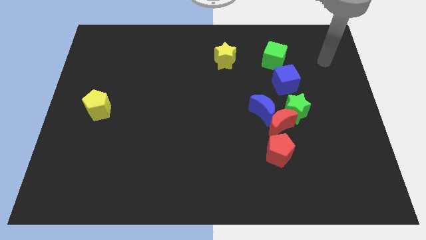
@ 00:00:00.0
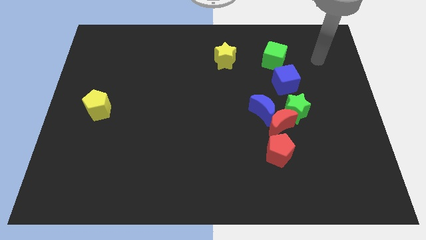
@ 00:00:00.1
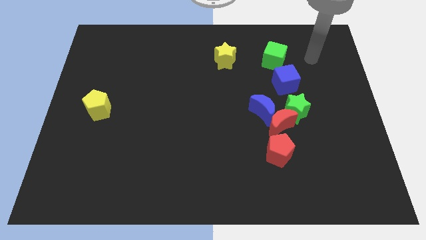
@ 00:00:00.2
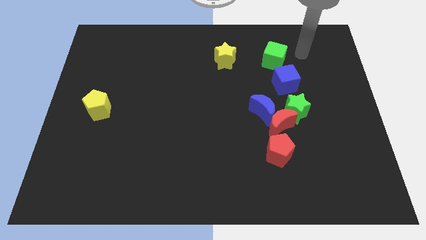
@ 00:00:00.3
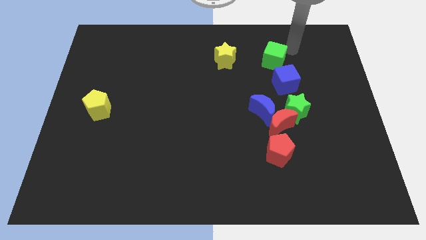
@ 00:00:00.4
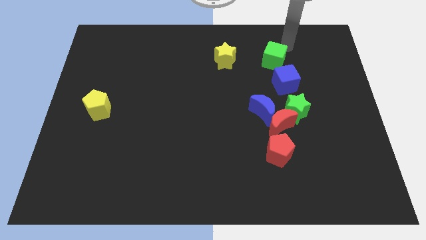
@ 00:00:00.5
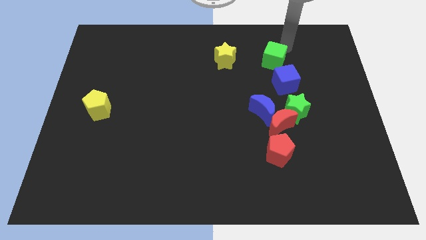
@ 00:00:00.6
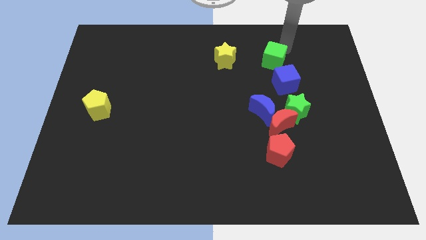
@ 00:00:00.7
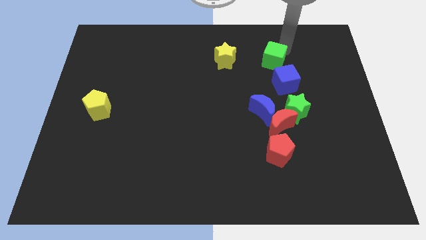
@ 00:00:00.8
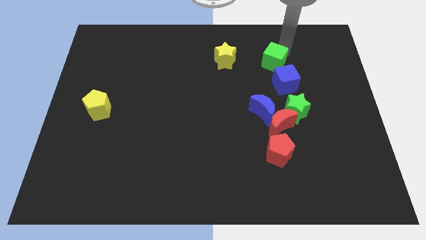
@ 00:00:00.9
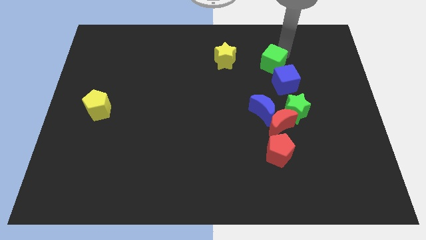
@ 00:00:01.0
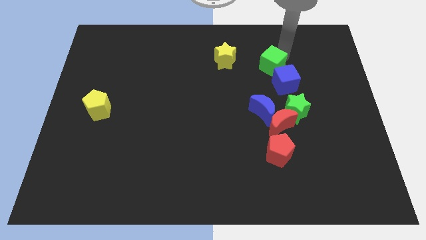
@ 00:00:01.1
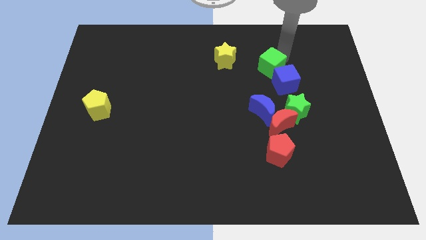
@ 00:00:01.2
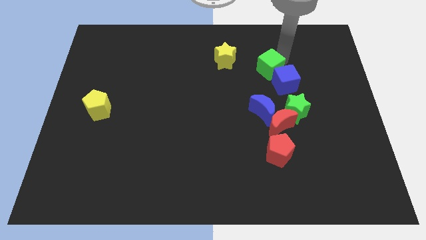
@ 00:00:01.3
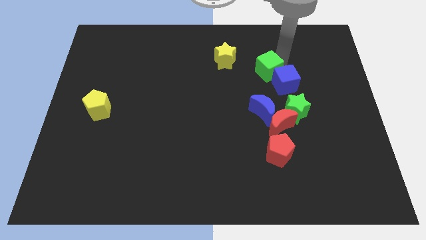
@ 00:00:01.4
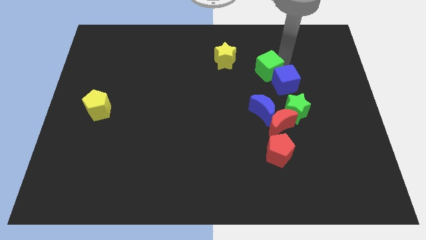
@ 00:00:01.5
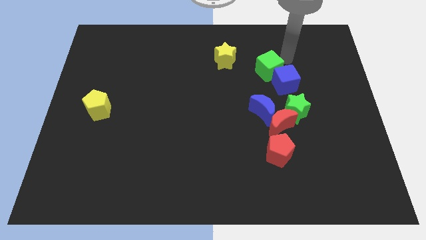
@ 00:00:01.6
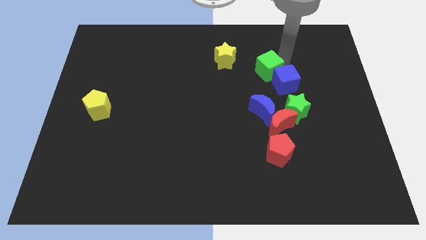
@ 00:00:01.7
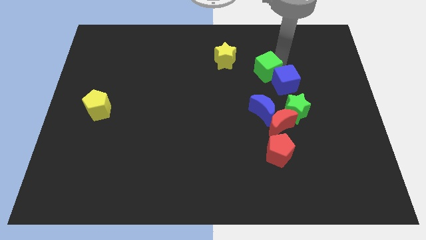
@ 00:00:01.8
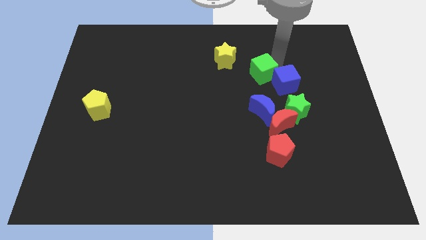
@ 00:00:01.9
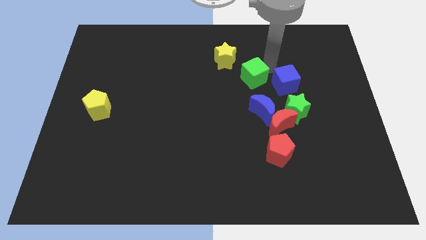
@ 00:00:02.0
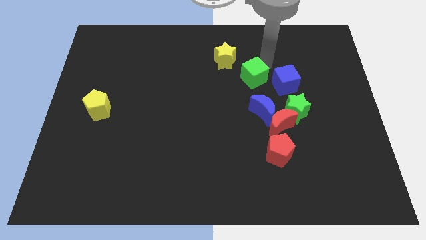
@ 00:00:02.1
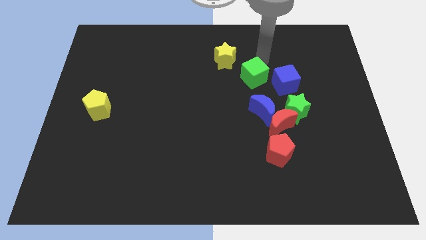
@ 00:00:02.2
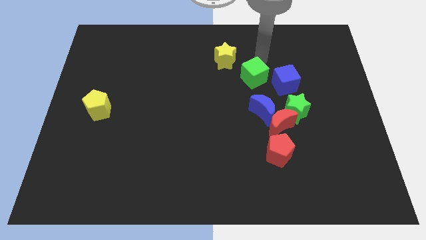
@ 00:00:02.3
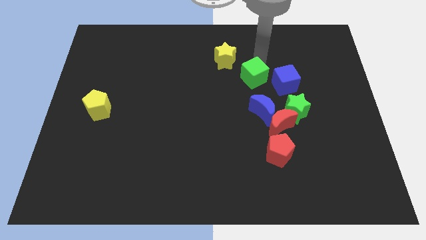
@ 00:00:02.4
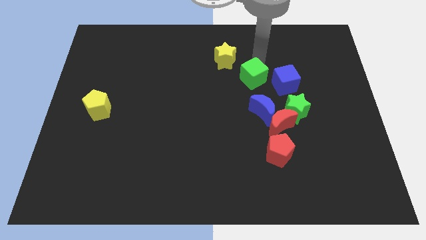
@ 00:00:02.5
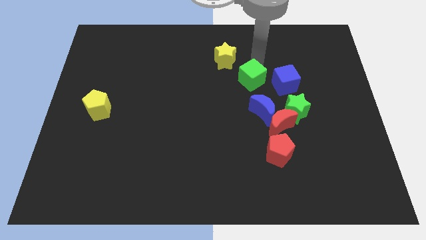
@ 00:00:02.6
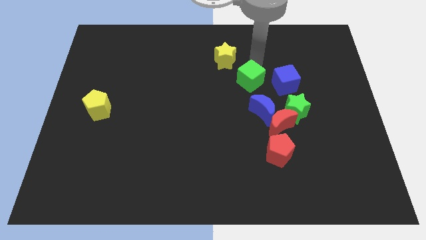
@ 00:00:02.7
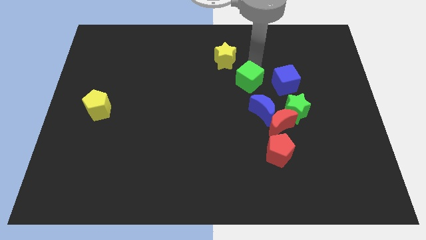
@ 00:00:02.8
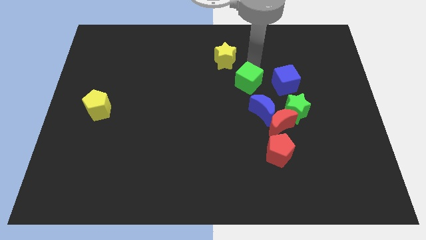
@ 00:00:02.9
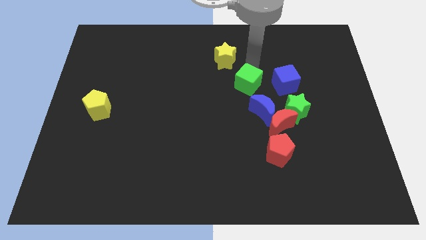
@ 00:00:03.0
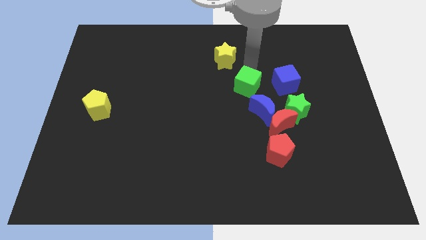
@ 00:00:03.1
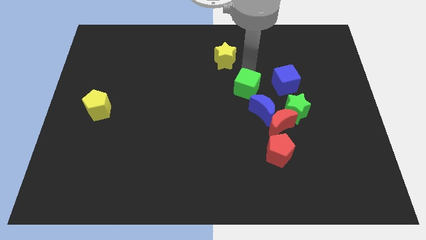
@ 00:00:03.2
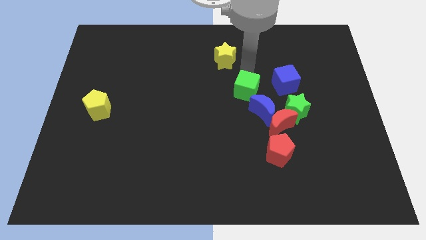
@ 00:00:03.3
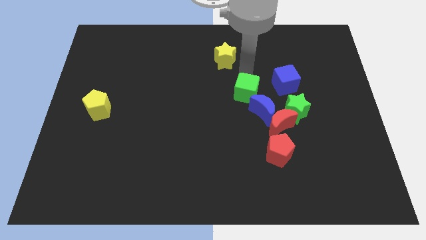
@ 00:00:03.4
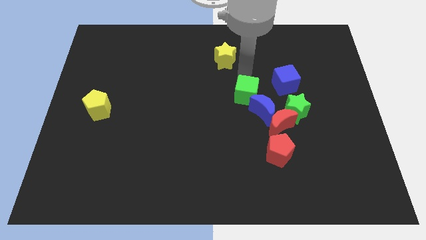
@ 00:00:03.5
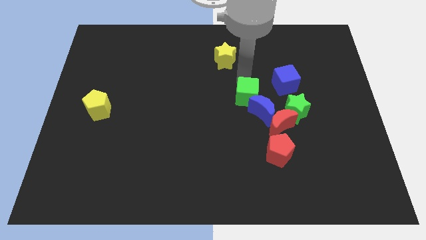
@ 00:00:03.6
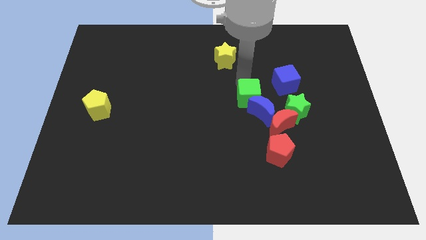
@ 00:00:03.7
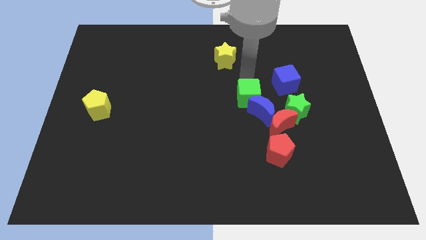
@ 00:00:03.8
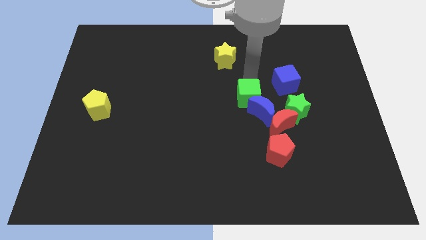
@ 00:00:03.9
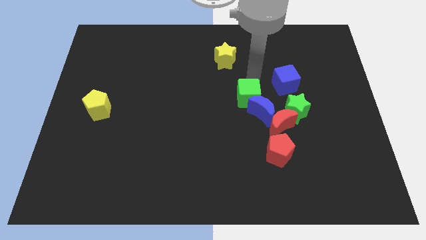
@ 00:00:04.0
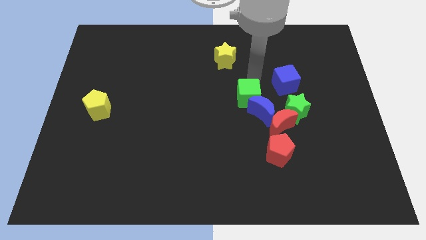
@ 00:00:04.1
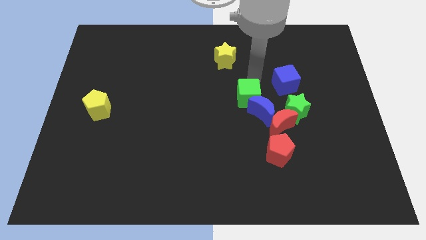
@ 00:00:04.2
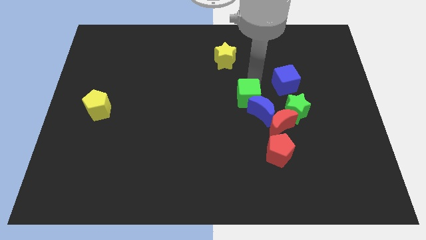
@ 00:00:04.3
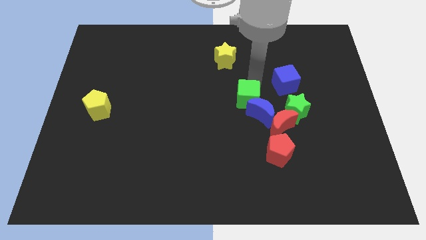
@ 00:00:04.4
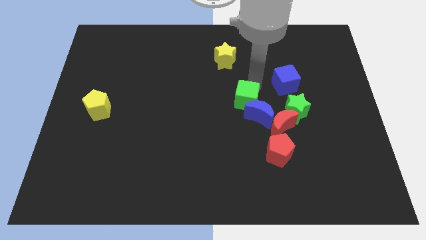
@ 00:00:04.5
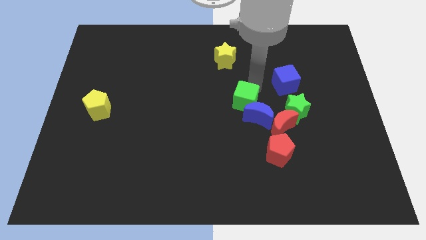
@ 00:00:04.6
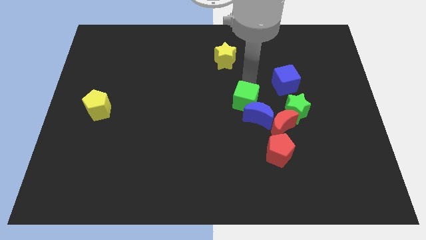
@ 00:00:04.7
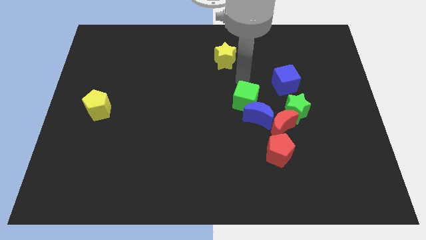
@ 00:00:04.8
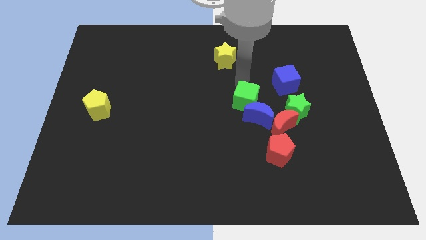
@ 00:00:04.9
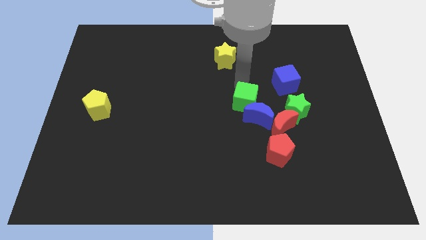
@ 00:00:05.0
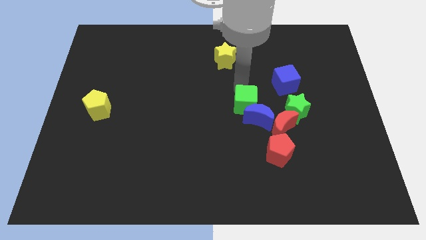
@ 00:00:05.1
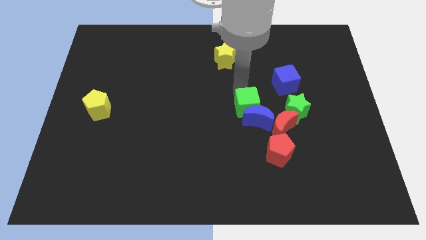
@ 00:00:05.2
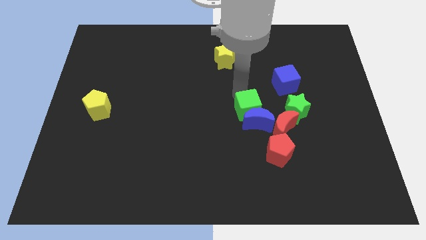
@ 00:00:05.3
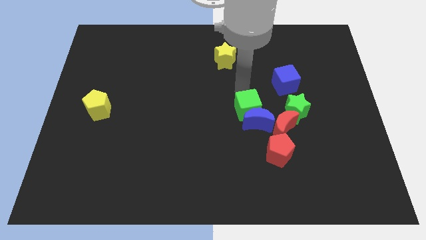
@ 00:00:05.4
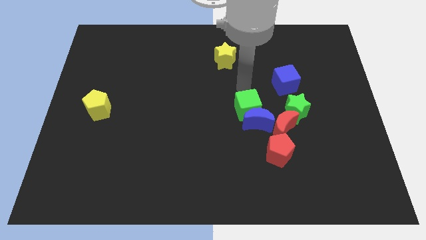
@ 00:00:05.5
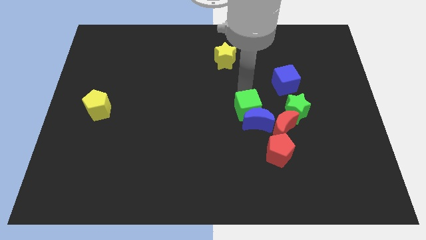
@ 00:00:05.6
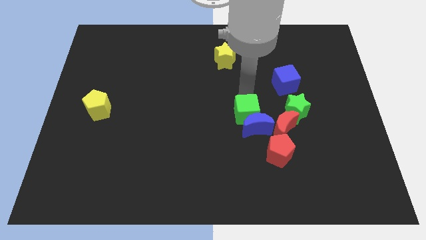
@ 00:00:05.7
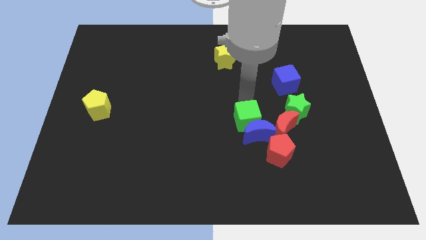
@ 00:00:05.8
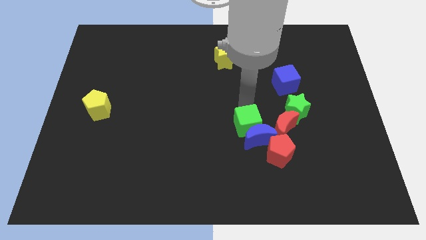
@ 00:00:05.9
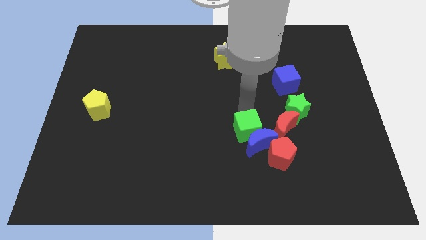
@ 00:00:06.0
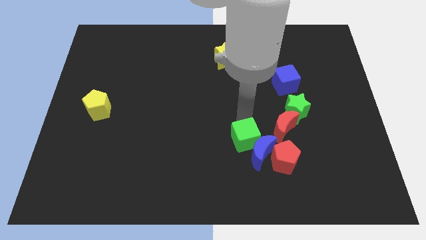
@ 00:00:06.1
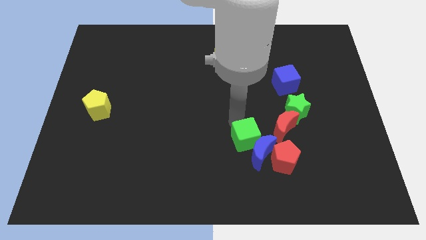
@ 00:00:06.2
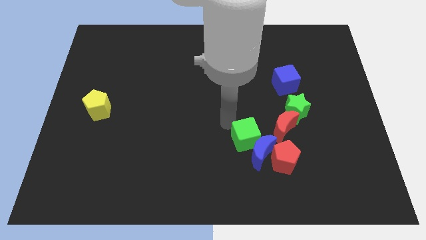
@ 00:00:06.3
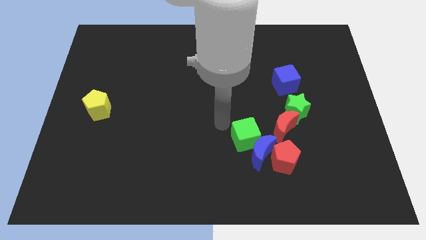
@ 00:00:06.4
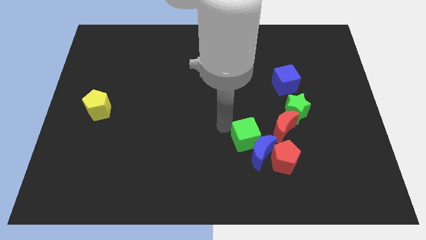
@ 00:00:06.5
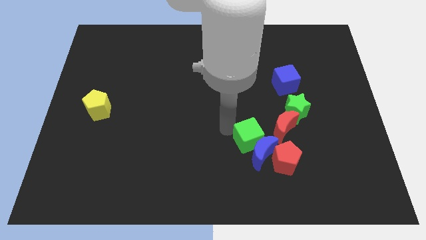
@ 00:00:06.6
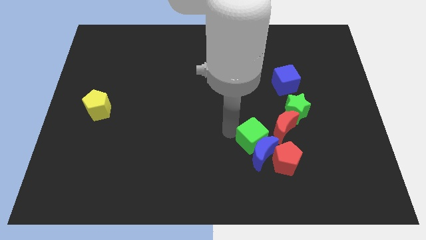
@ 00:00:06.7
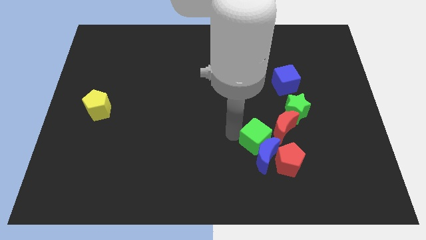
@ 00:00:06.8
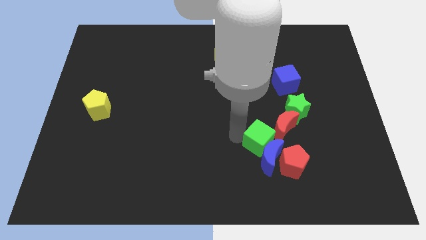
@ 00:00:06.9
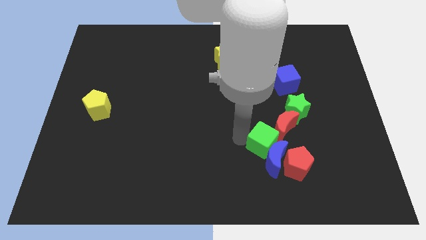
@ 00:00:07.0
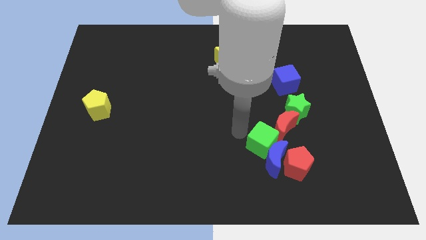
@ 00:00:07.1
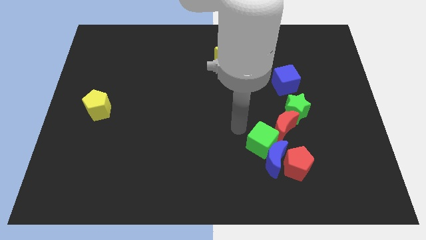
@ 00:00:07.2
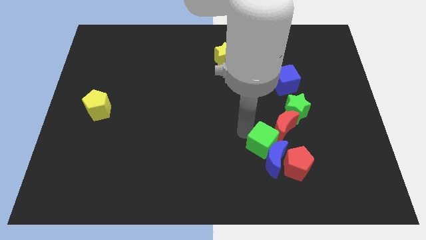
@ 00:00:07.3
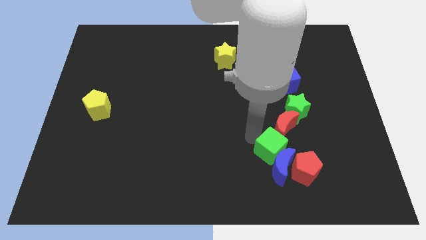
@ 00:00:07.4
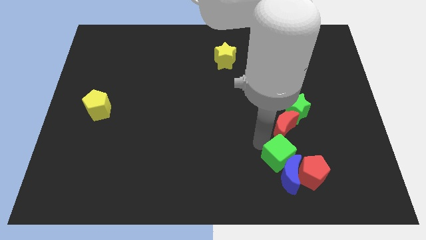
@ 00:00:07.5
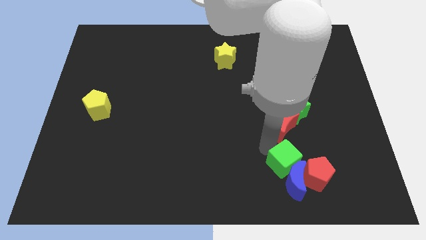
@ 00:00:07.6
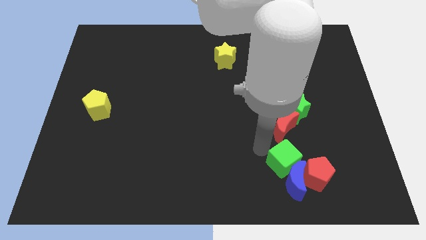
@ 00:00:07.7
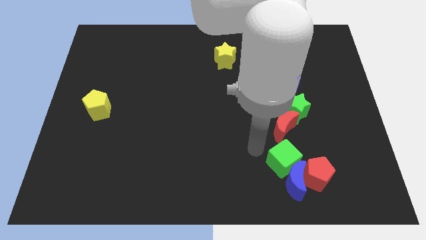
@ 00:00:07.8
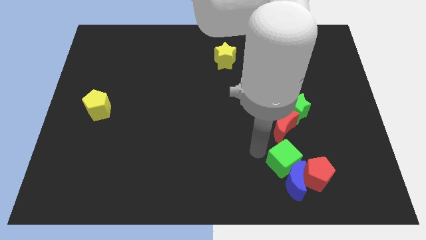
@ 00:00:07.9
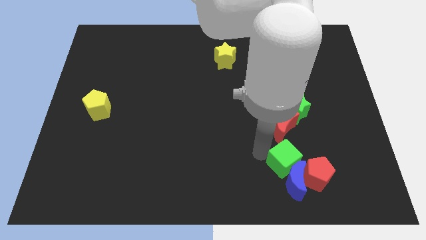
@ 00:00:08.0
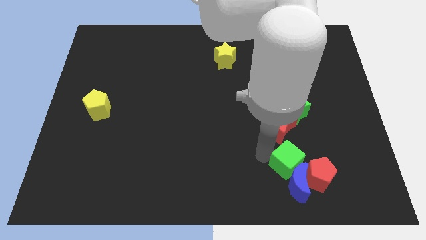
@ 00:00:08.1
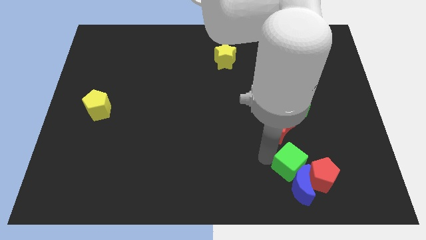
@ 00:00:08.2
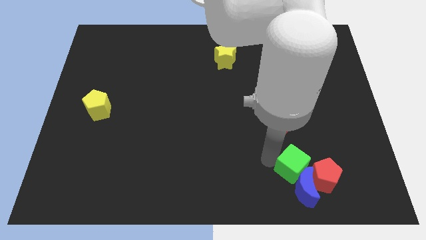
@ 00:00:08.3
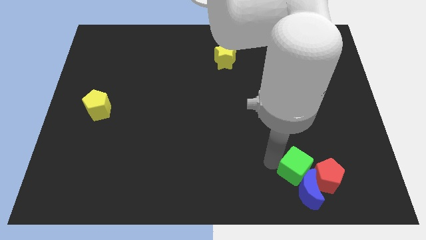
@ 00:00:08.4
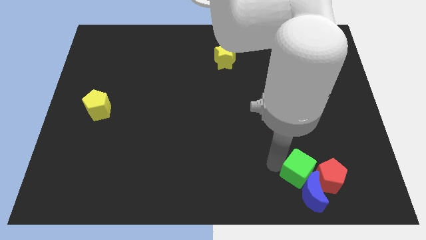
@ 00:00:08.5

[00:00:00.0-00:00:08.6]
push the green cube next to the red pentagon
